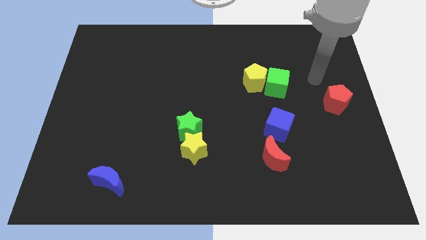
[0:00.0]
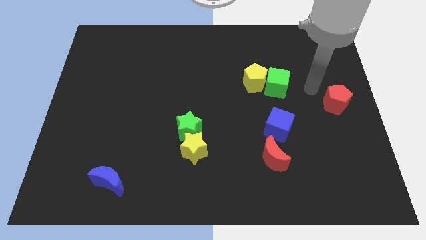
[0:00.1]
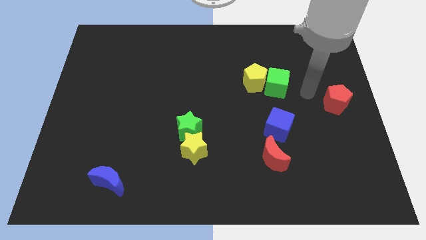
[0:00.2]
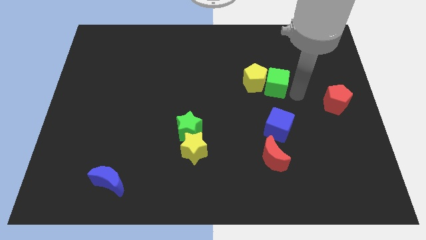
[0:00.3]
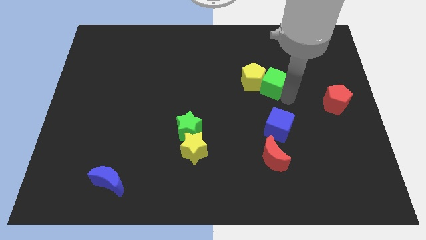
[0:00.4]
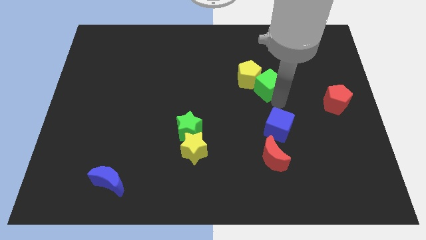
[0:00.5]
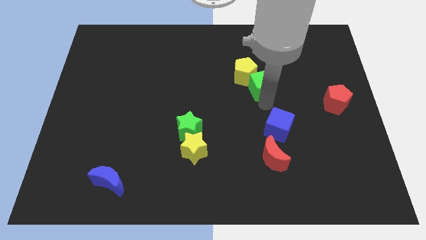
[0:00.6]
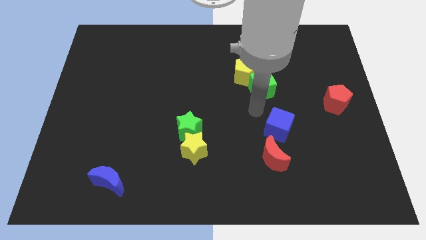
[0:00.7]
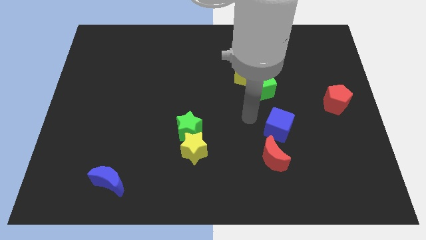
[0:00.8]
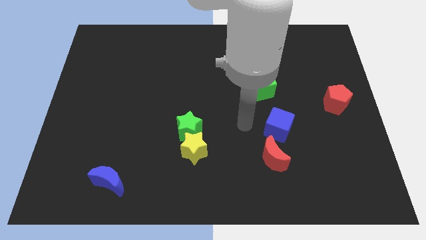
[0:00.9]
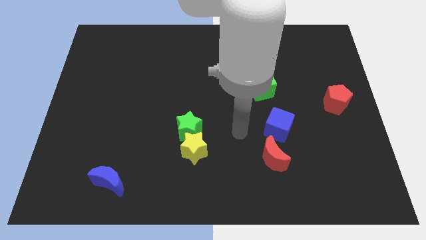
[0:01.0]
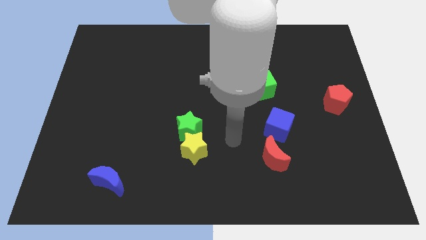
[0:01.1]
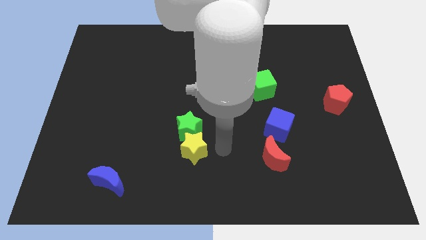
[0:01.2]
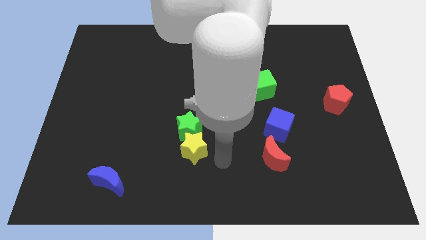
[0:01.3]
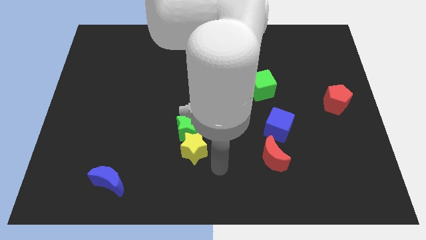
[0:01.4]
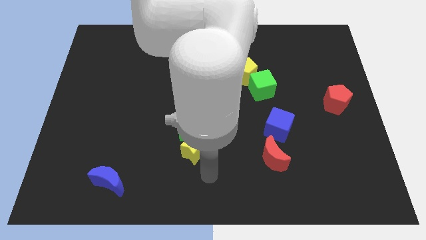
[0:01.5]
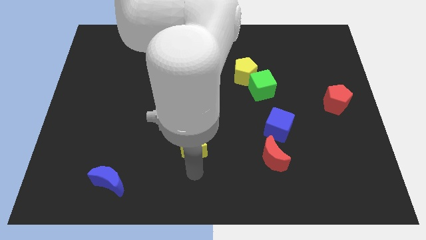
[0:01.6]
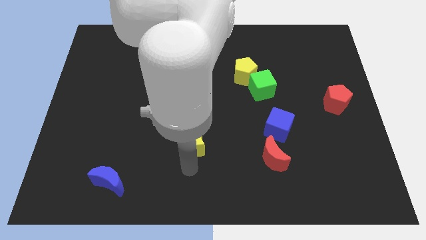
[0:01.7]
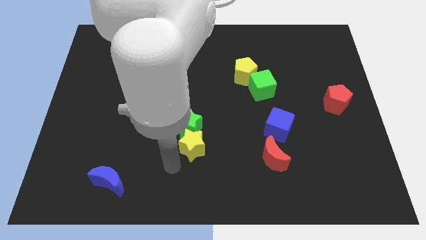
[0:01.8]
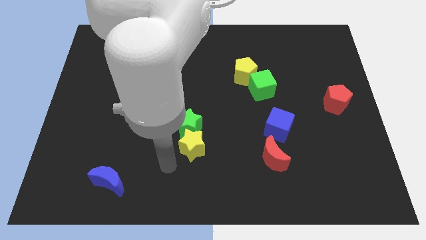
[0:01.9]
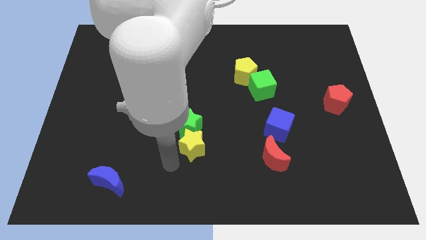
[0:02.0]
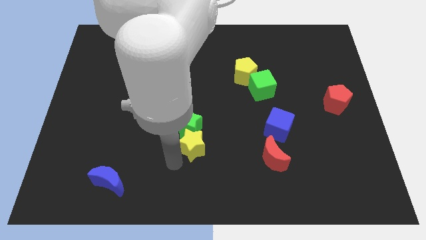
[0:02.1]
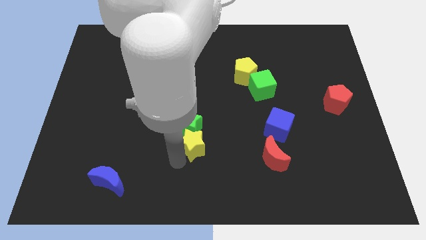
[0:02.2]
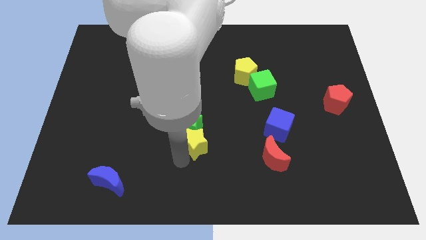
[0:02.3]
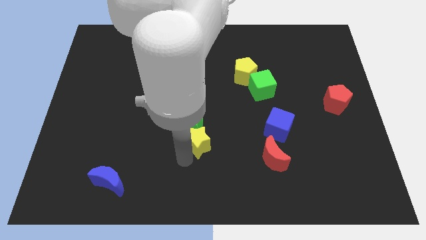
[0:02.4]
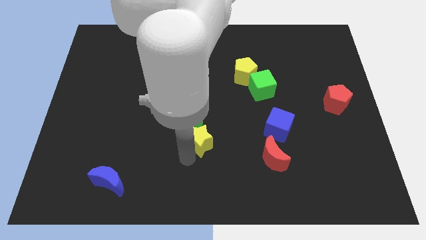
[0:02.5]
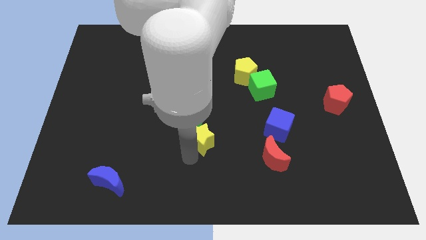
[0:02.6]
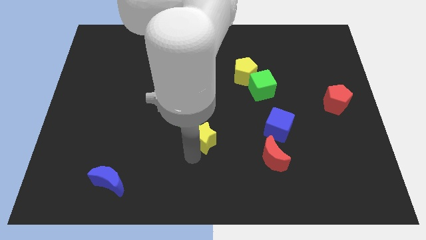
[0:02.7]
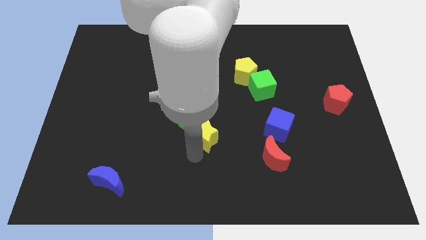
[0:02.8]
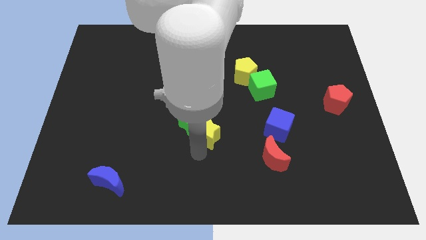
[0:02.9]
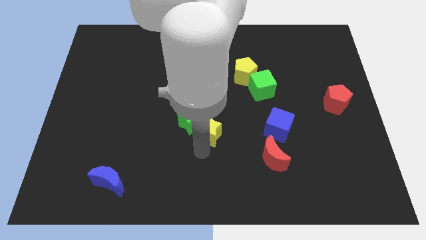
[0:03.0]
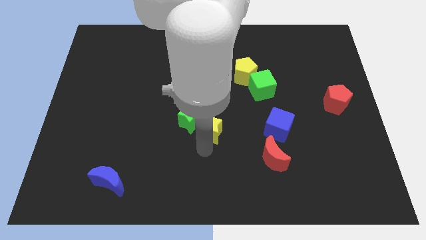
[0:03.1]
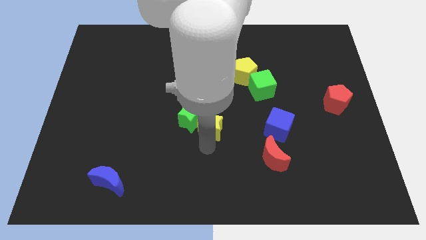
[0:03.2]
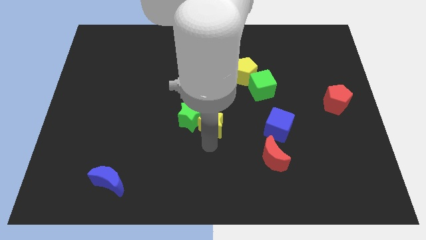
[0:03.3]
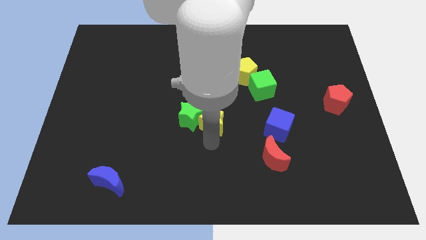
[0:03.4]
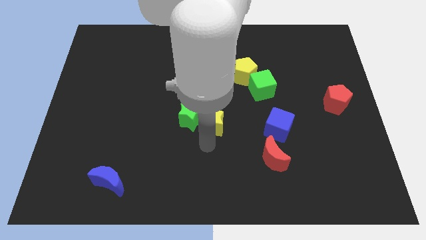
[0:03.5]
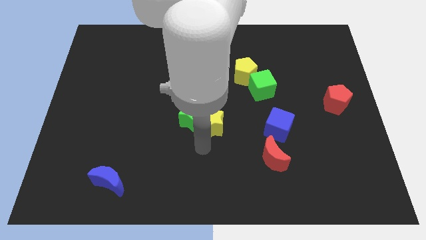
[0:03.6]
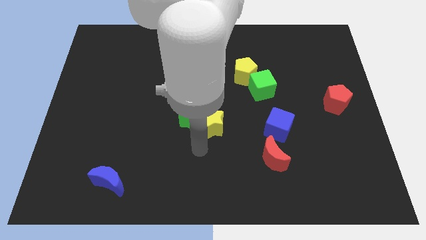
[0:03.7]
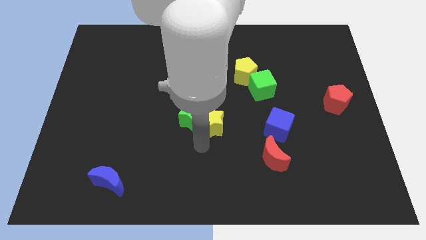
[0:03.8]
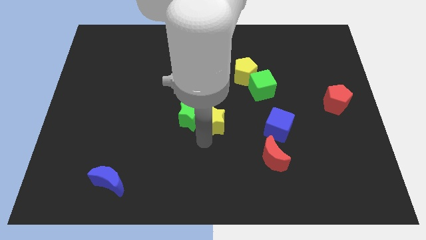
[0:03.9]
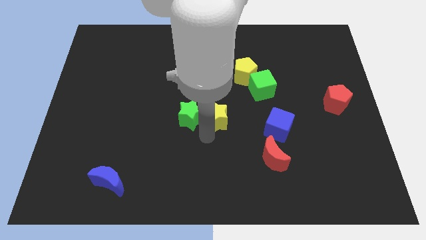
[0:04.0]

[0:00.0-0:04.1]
slightly push the yellow star upwards

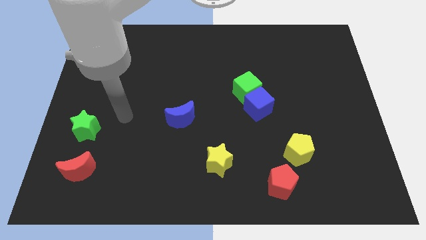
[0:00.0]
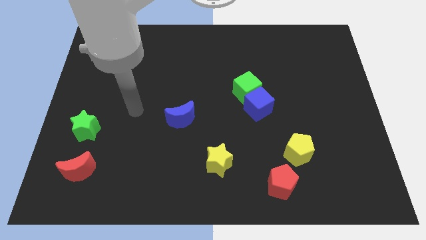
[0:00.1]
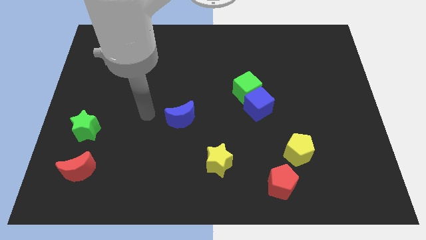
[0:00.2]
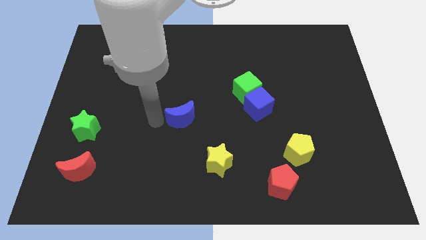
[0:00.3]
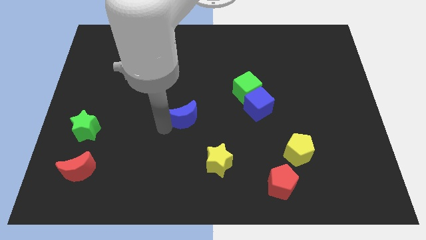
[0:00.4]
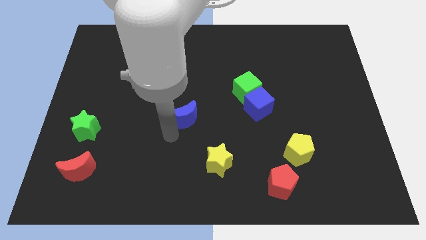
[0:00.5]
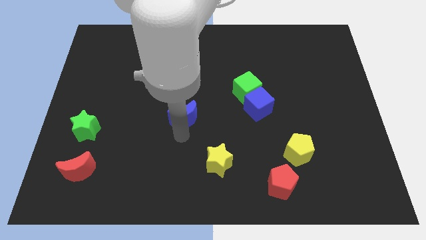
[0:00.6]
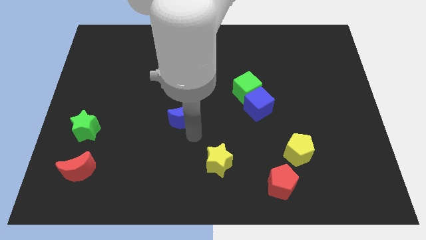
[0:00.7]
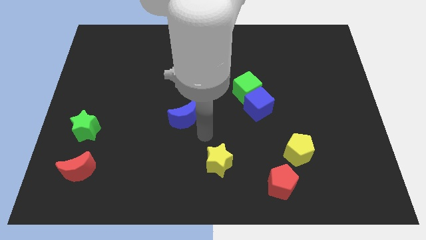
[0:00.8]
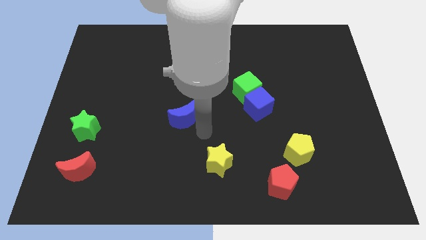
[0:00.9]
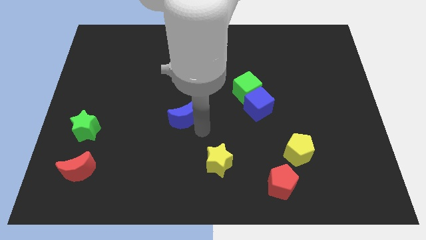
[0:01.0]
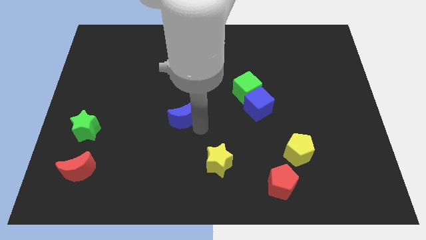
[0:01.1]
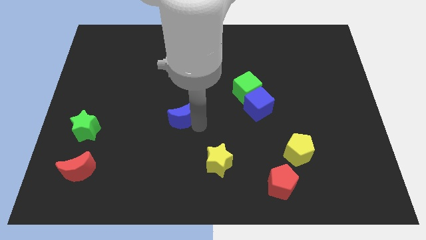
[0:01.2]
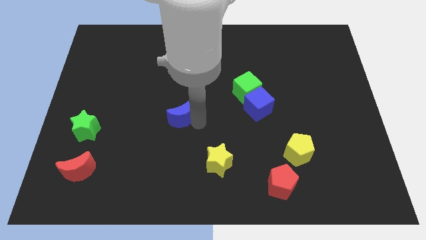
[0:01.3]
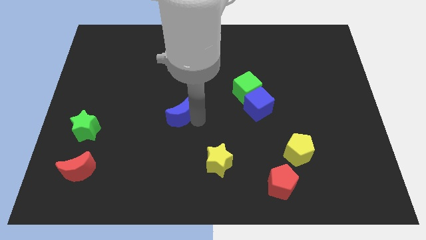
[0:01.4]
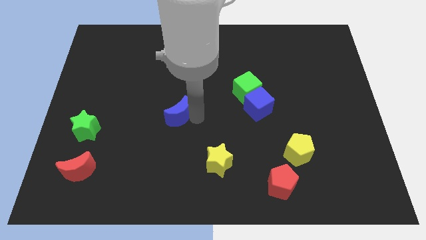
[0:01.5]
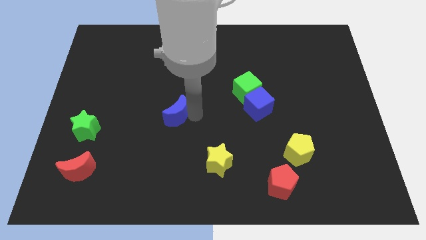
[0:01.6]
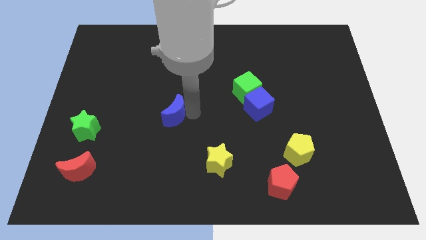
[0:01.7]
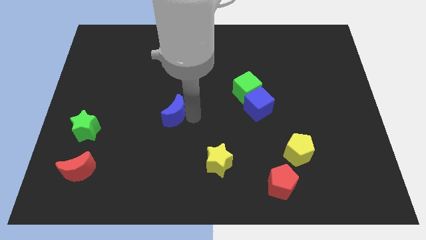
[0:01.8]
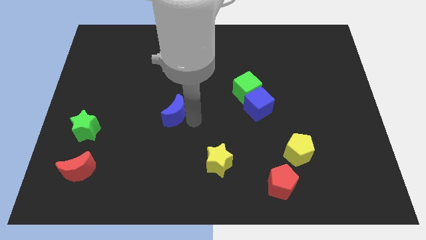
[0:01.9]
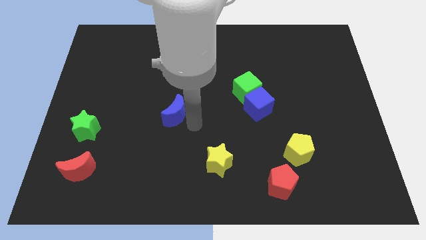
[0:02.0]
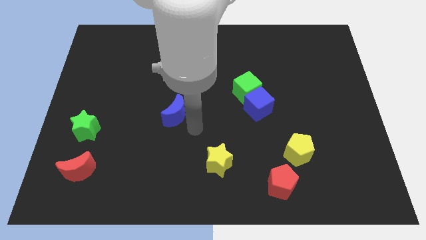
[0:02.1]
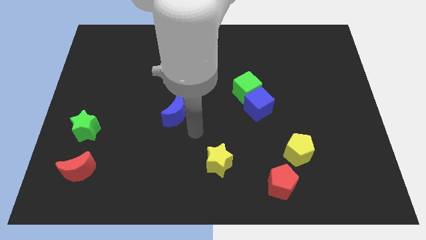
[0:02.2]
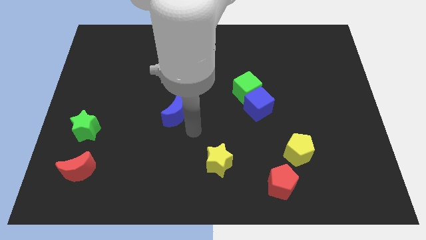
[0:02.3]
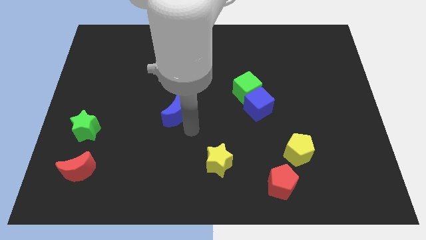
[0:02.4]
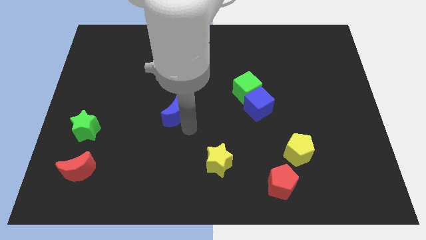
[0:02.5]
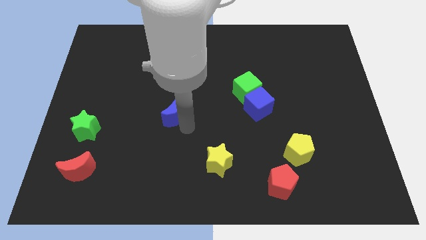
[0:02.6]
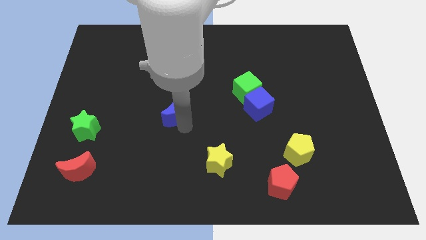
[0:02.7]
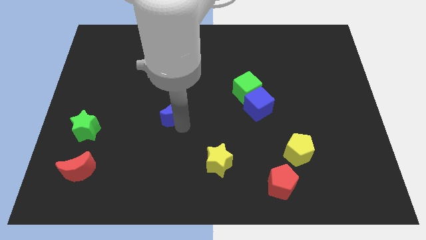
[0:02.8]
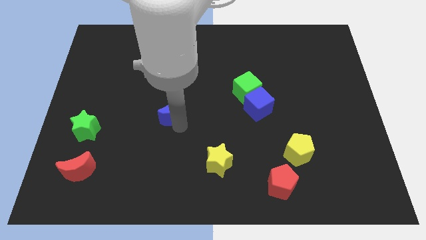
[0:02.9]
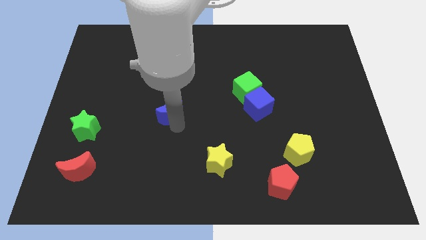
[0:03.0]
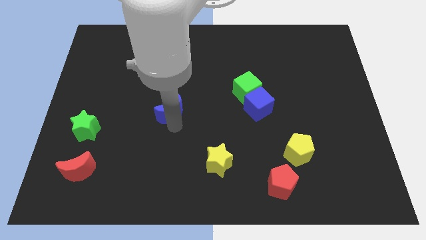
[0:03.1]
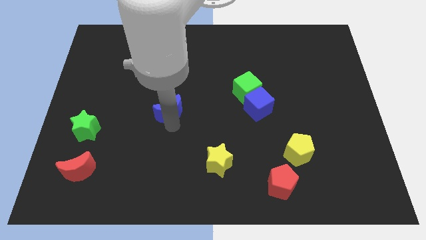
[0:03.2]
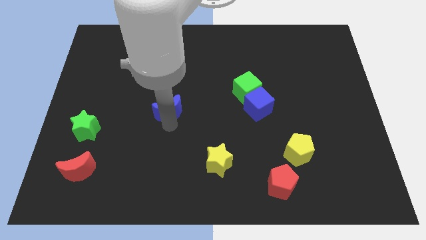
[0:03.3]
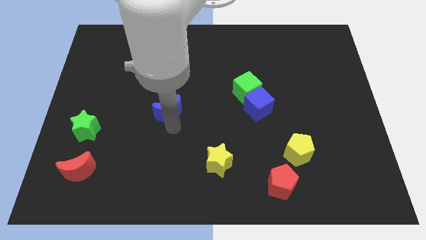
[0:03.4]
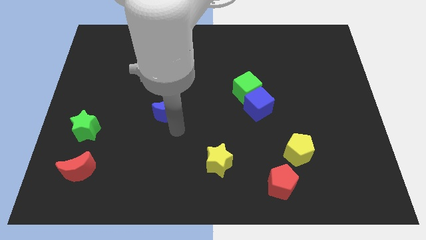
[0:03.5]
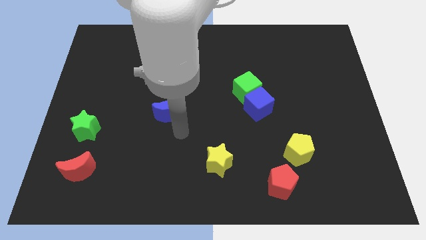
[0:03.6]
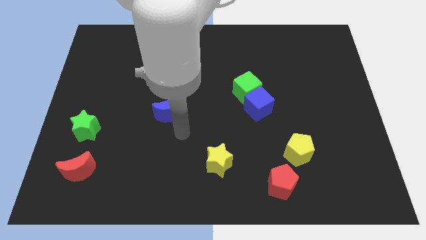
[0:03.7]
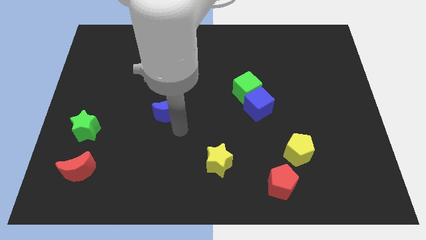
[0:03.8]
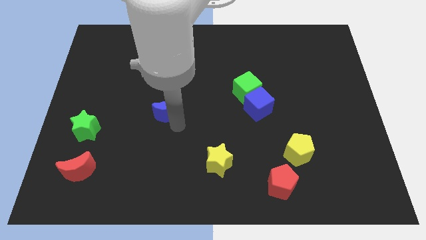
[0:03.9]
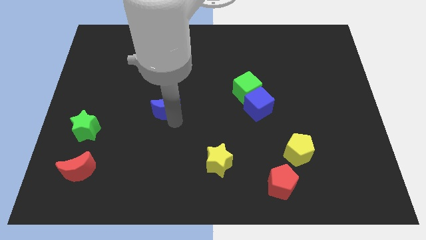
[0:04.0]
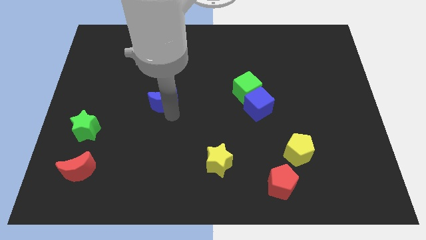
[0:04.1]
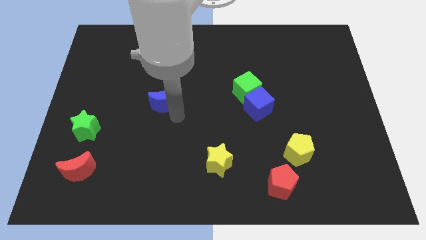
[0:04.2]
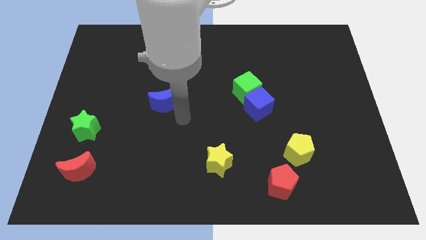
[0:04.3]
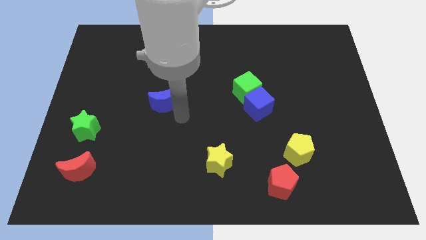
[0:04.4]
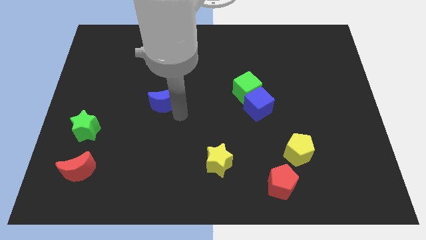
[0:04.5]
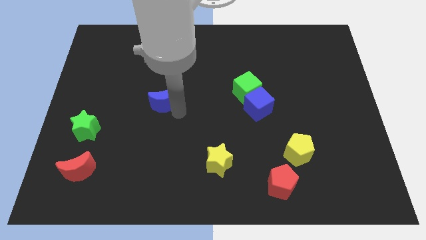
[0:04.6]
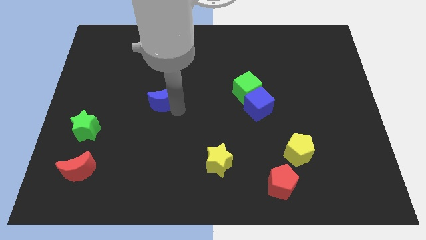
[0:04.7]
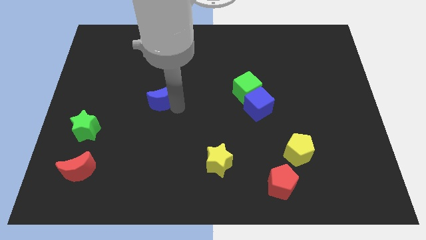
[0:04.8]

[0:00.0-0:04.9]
slightly move the blue moon up and to the left
